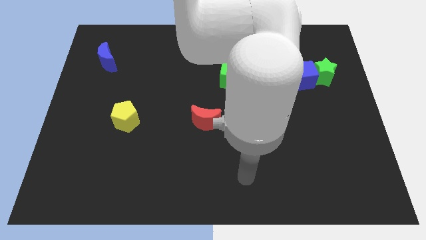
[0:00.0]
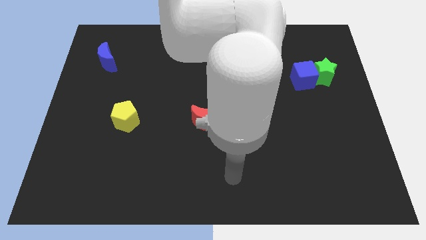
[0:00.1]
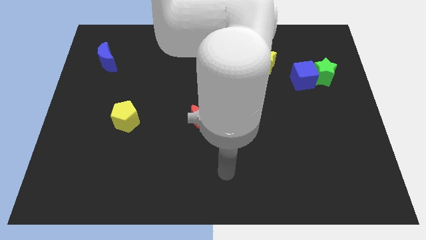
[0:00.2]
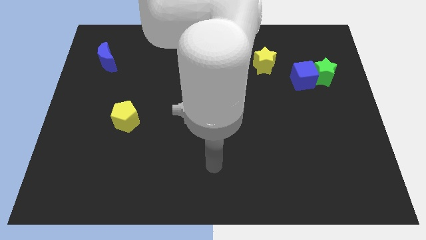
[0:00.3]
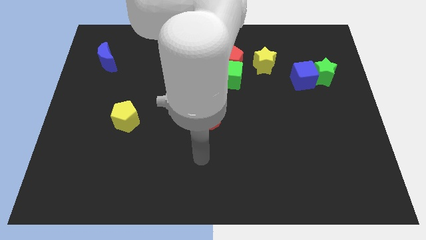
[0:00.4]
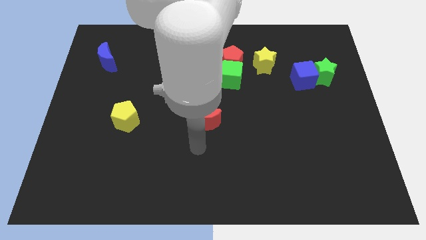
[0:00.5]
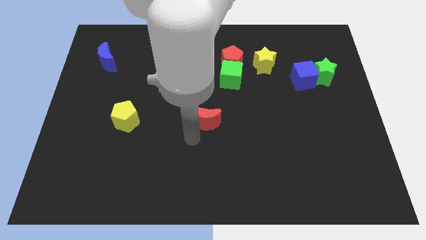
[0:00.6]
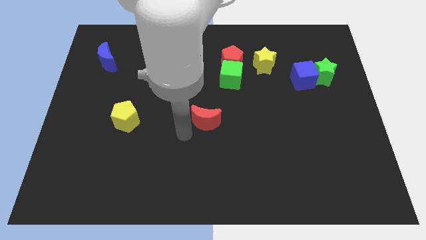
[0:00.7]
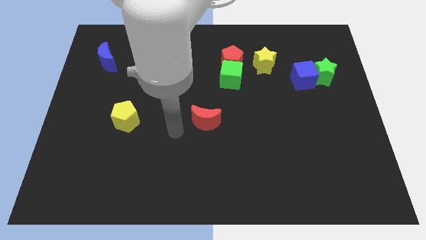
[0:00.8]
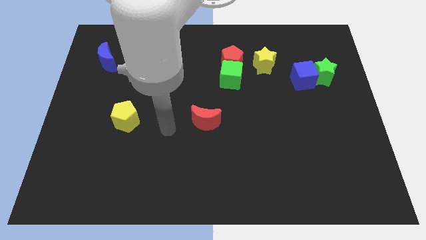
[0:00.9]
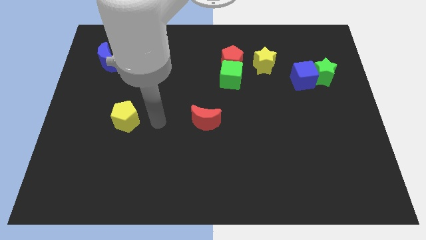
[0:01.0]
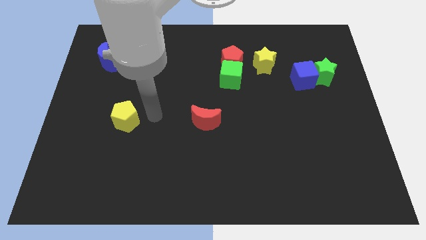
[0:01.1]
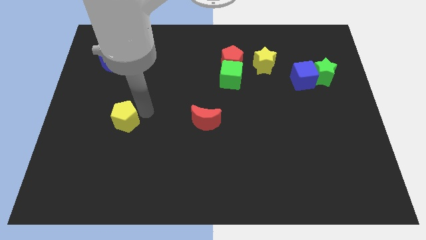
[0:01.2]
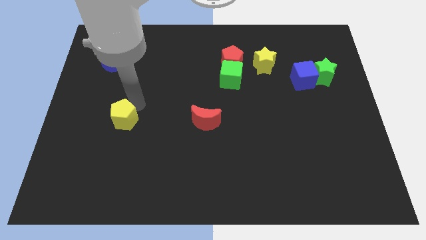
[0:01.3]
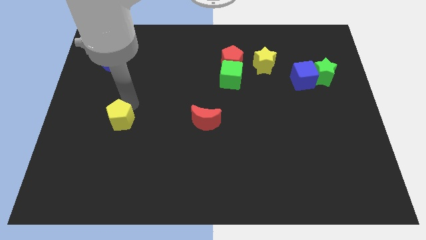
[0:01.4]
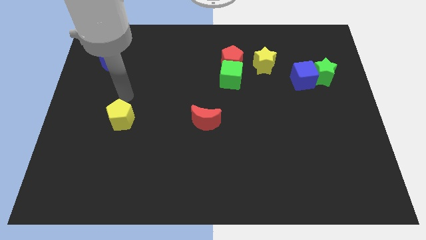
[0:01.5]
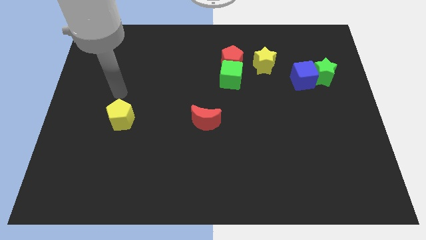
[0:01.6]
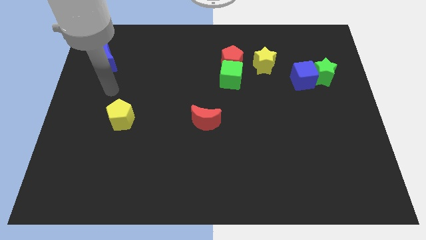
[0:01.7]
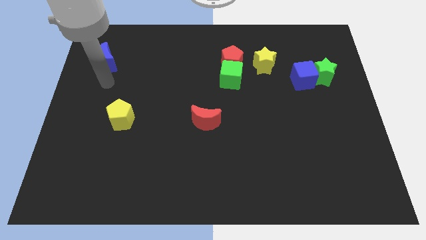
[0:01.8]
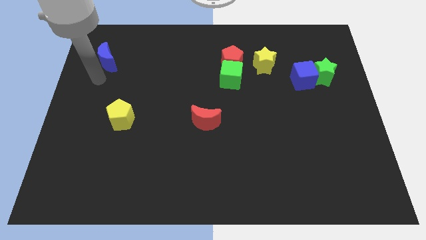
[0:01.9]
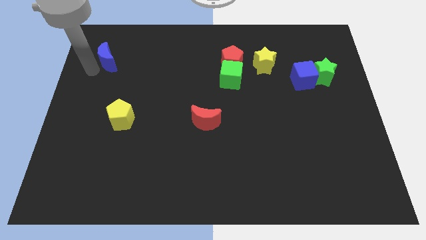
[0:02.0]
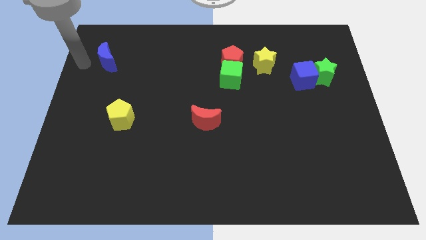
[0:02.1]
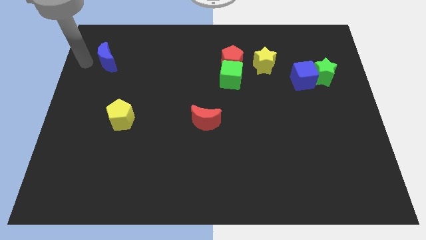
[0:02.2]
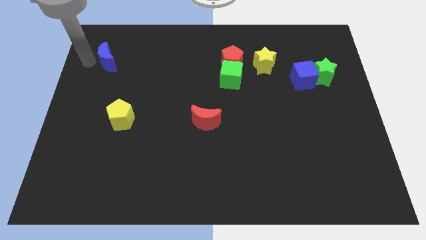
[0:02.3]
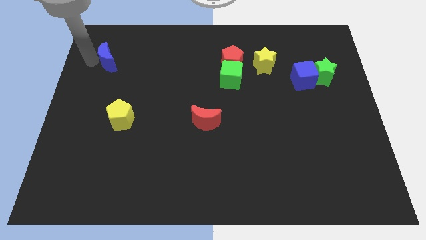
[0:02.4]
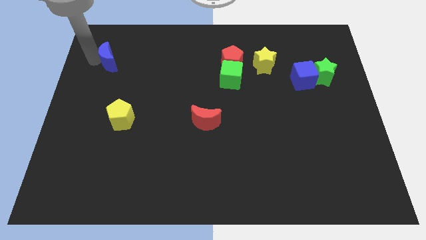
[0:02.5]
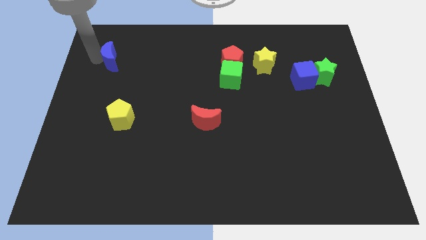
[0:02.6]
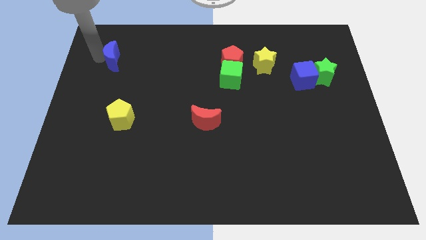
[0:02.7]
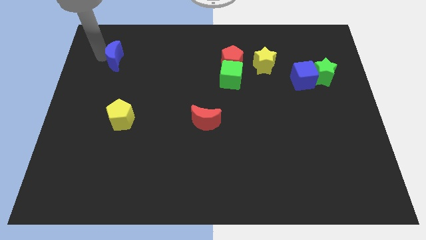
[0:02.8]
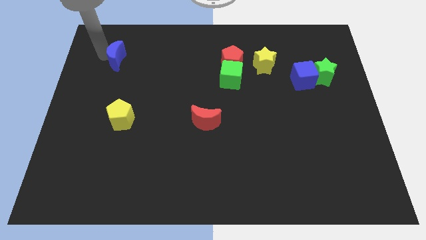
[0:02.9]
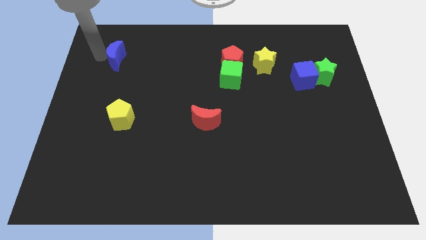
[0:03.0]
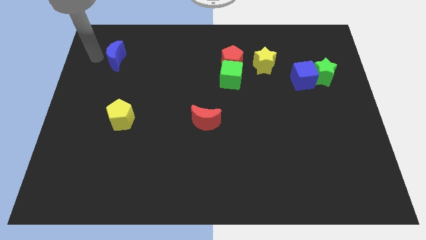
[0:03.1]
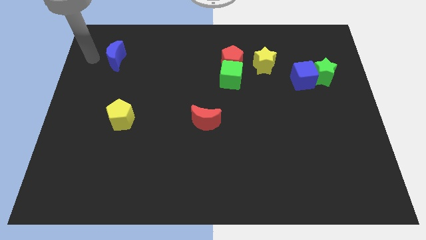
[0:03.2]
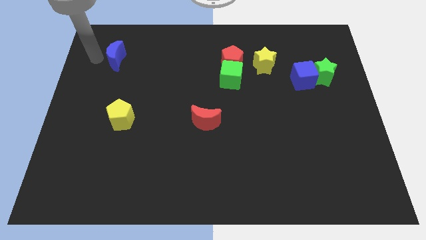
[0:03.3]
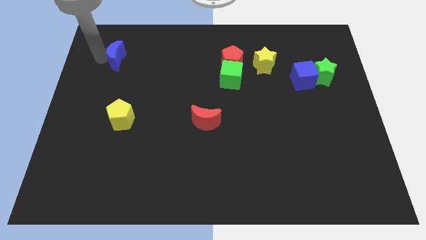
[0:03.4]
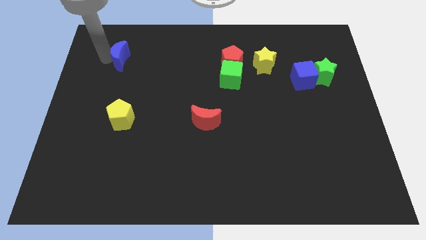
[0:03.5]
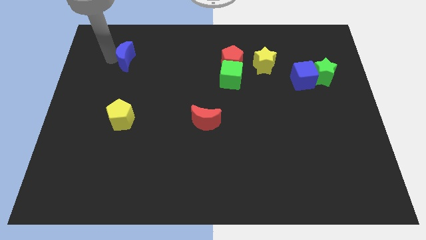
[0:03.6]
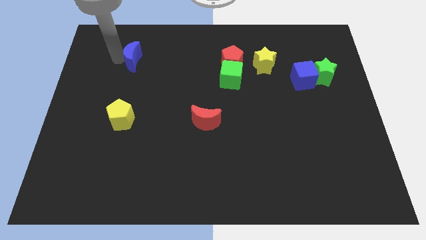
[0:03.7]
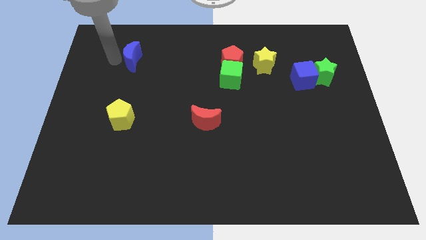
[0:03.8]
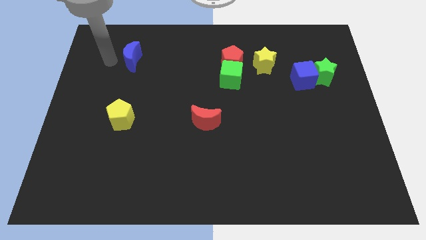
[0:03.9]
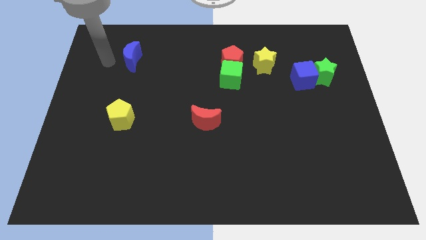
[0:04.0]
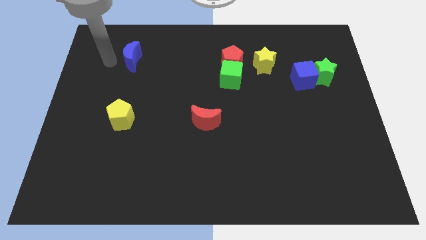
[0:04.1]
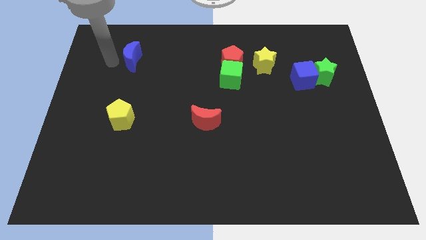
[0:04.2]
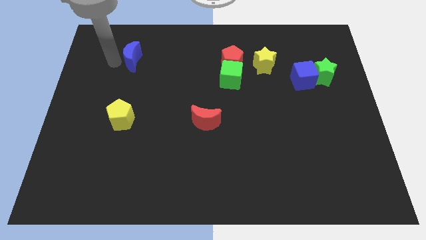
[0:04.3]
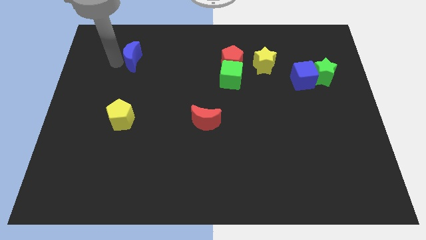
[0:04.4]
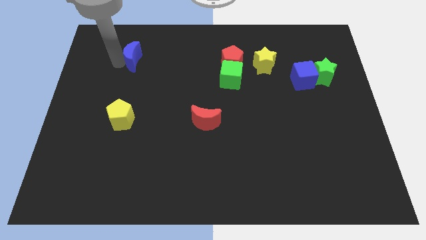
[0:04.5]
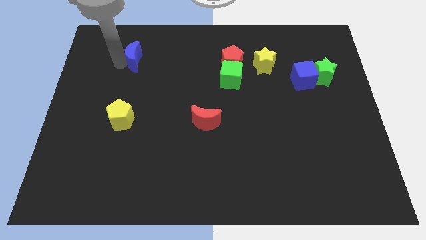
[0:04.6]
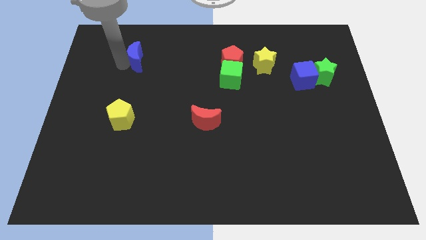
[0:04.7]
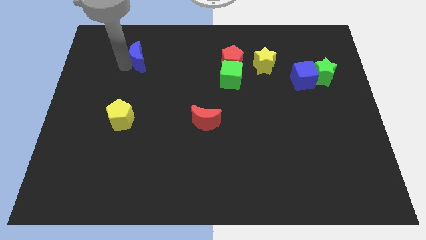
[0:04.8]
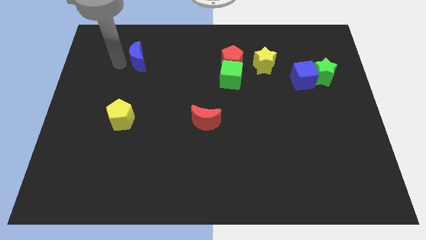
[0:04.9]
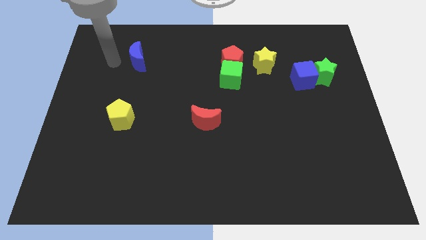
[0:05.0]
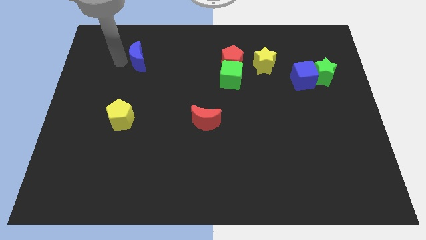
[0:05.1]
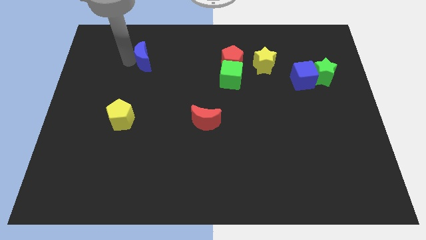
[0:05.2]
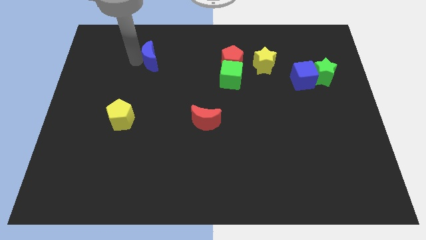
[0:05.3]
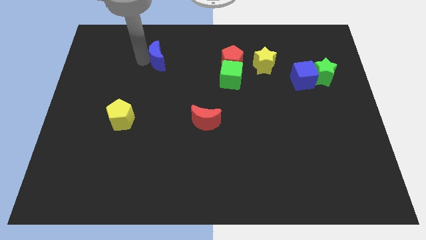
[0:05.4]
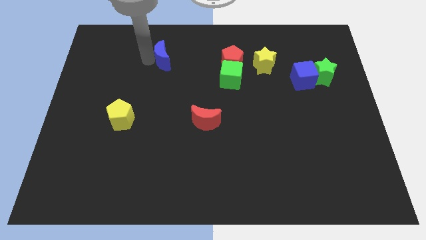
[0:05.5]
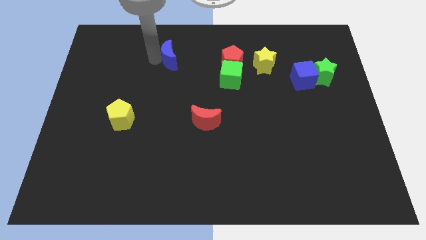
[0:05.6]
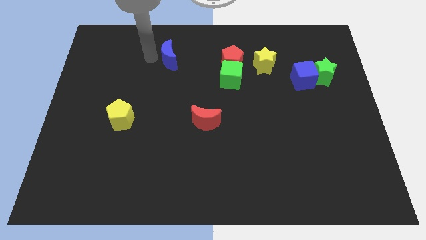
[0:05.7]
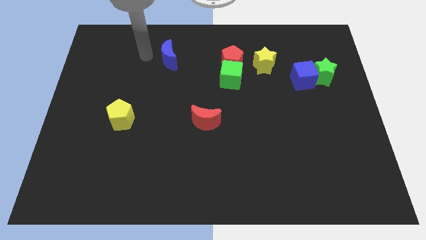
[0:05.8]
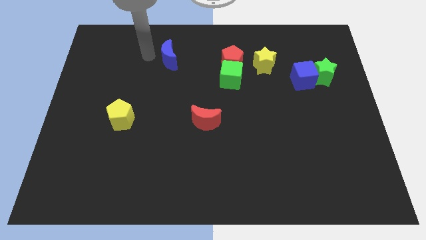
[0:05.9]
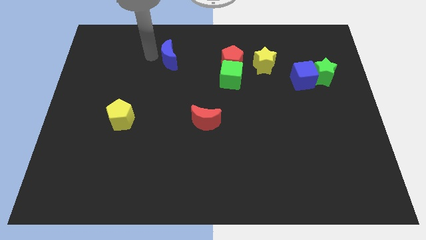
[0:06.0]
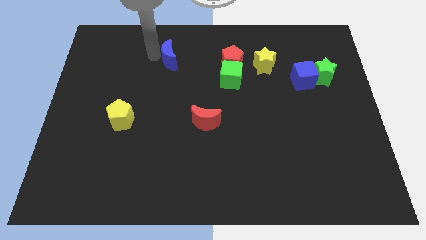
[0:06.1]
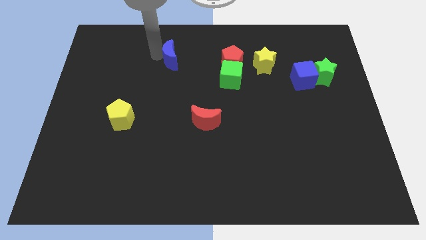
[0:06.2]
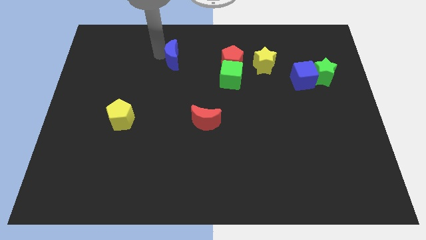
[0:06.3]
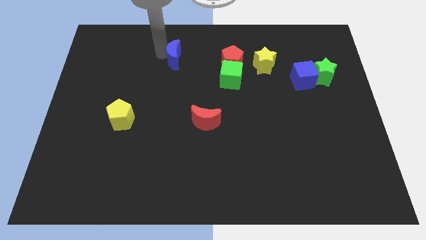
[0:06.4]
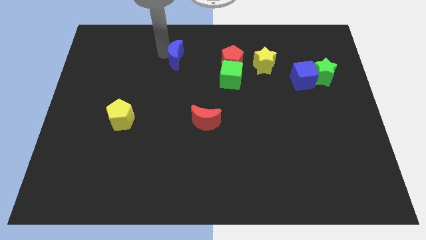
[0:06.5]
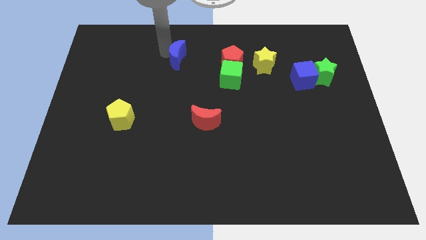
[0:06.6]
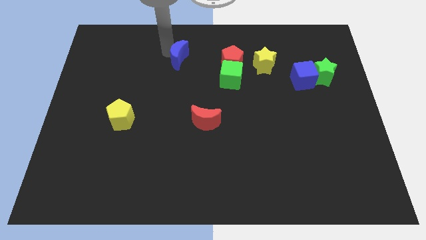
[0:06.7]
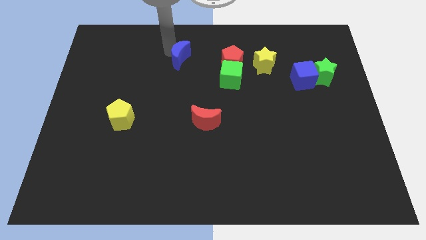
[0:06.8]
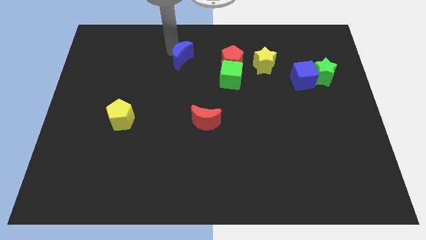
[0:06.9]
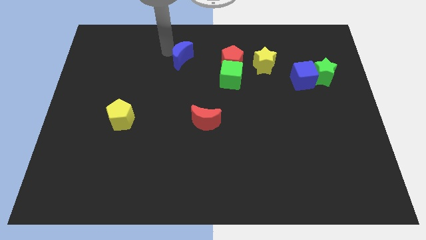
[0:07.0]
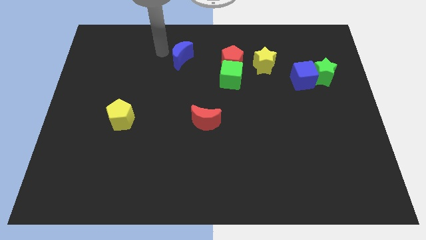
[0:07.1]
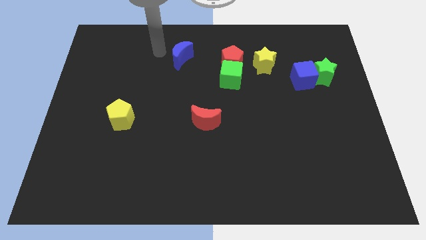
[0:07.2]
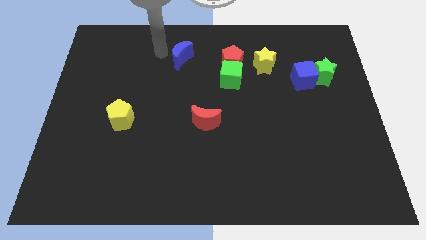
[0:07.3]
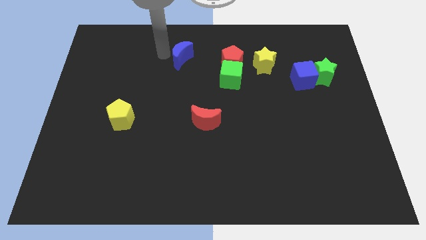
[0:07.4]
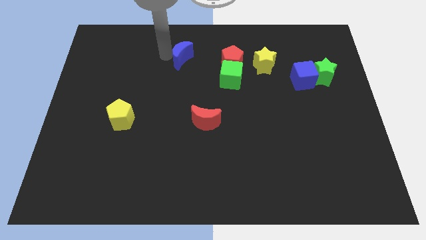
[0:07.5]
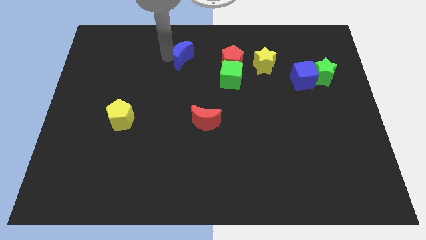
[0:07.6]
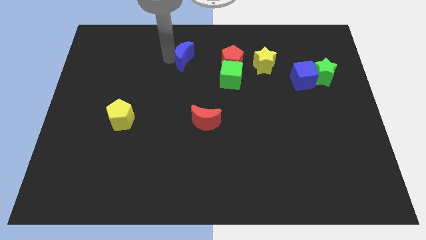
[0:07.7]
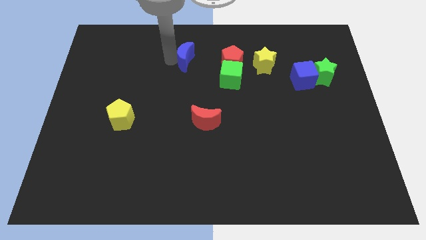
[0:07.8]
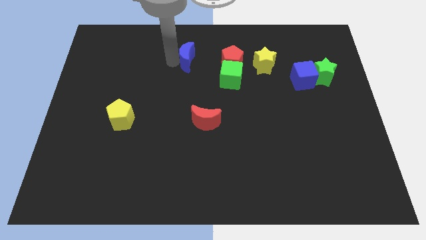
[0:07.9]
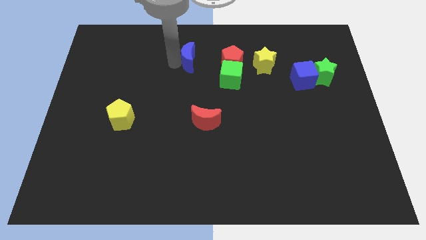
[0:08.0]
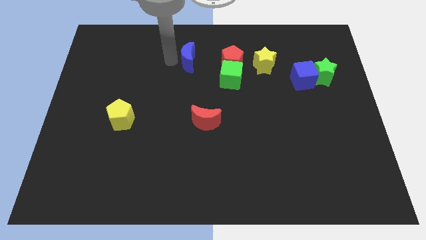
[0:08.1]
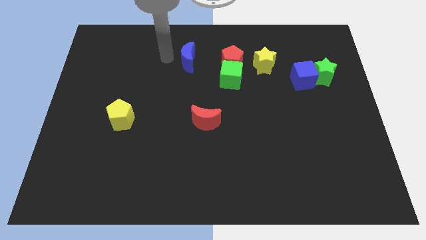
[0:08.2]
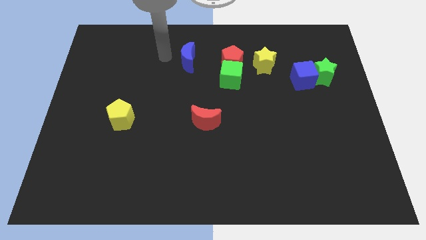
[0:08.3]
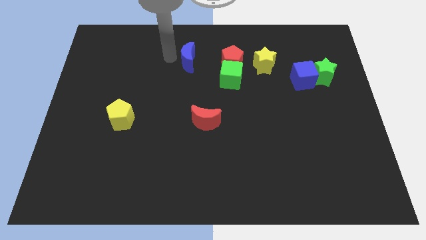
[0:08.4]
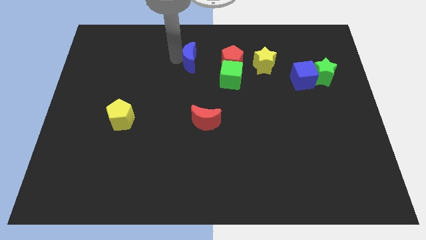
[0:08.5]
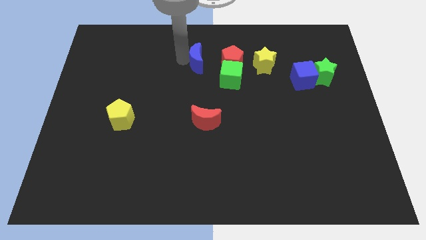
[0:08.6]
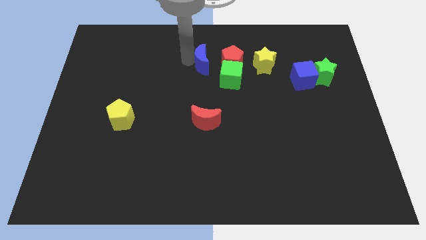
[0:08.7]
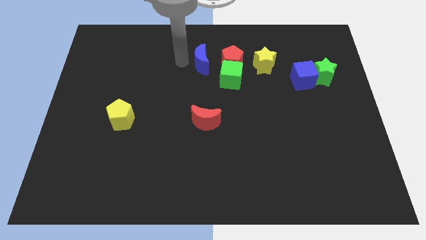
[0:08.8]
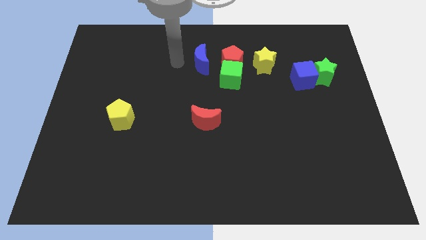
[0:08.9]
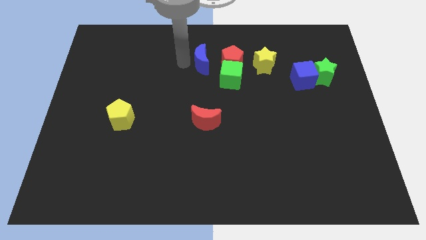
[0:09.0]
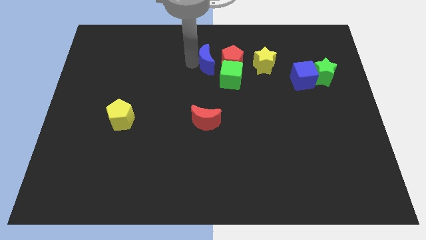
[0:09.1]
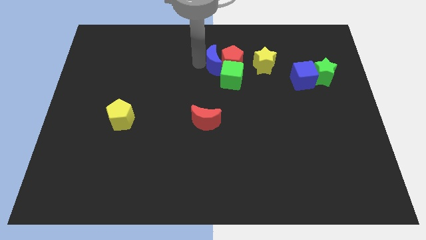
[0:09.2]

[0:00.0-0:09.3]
slide the blue moon towards the red pentagon
